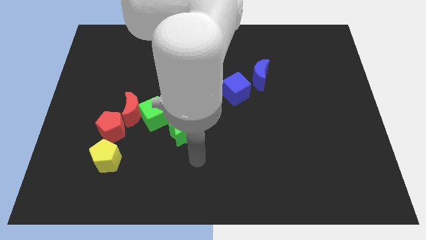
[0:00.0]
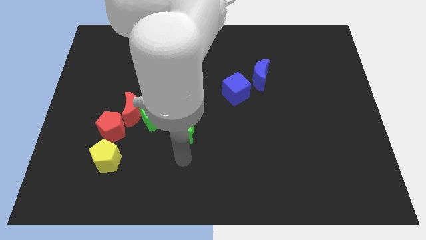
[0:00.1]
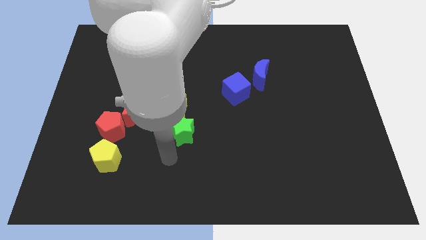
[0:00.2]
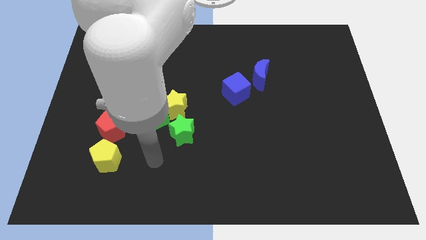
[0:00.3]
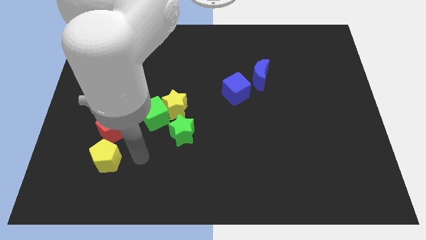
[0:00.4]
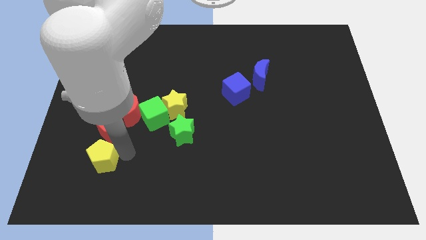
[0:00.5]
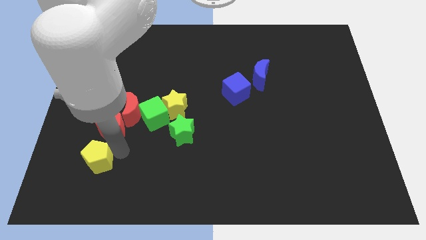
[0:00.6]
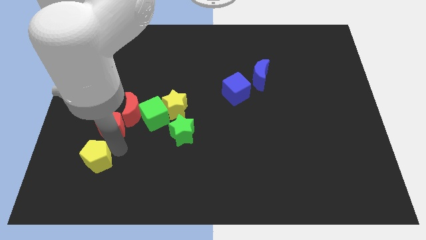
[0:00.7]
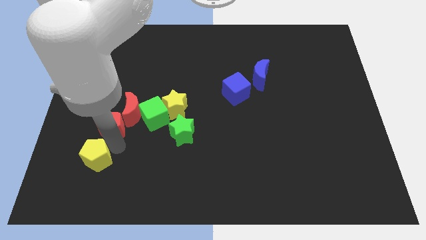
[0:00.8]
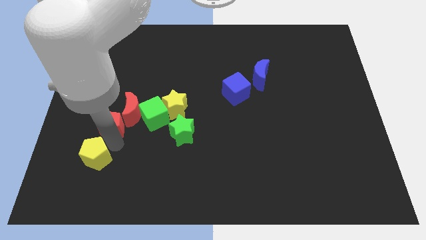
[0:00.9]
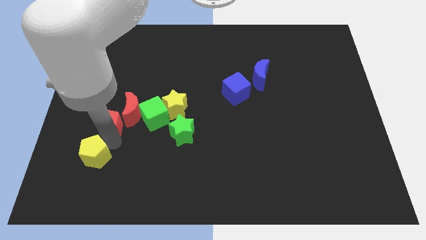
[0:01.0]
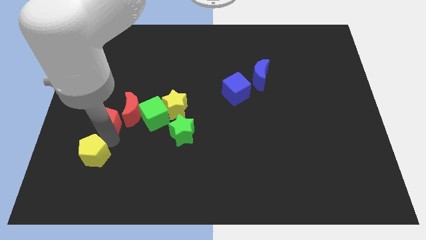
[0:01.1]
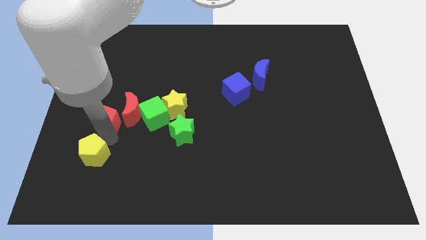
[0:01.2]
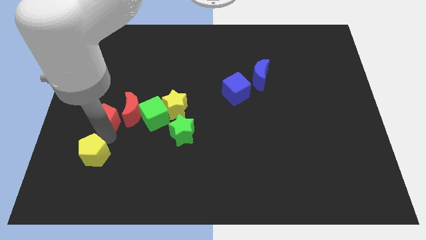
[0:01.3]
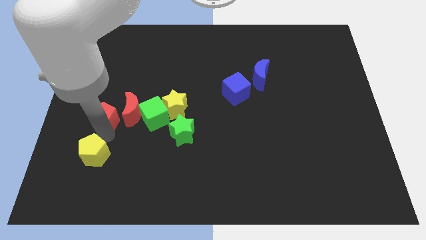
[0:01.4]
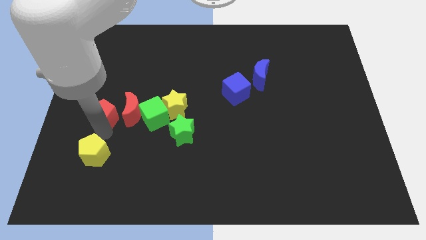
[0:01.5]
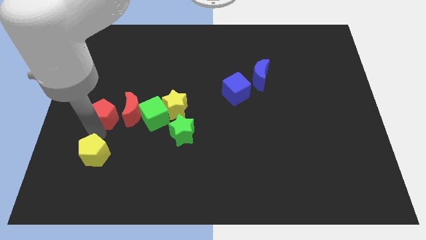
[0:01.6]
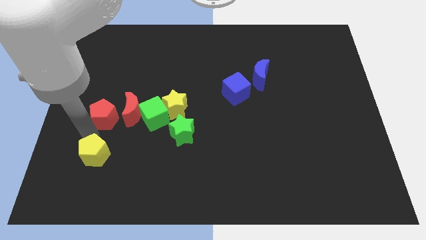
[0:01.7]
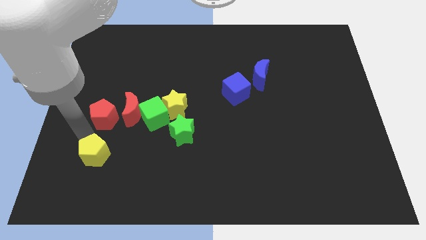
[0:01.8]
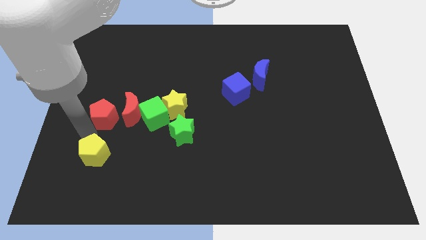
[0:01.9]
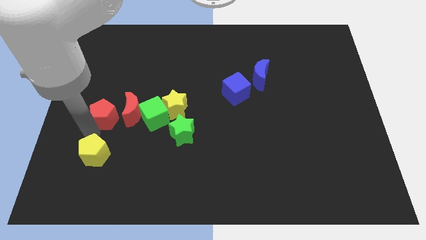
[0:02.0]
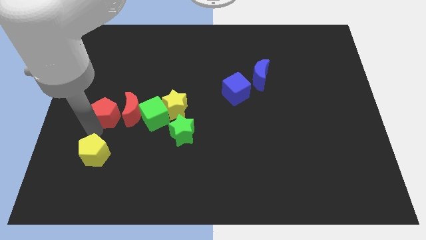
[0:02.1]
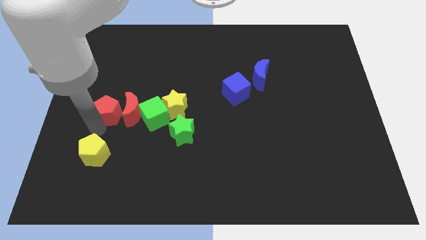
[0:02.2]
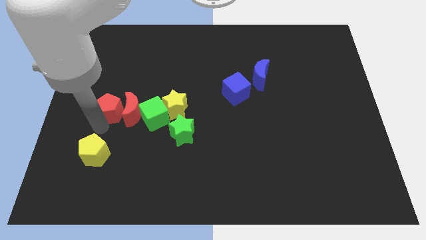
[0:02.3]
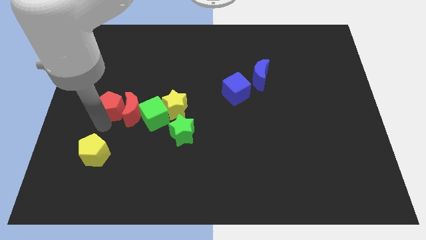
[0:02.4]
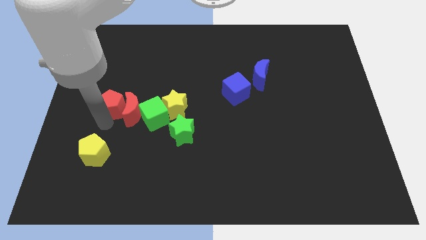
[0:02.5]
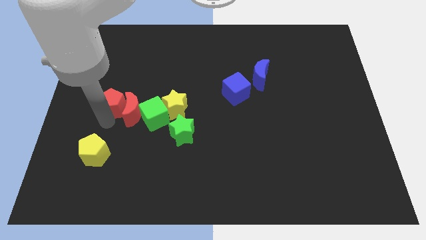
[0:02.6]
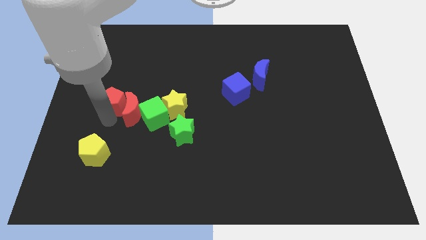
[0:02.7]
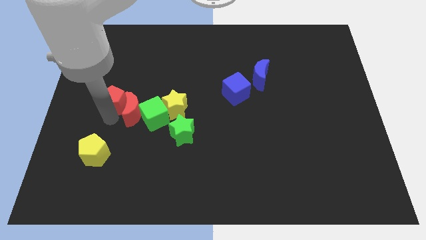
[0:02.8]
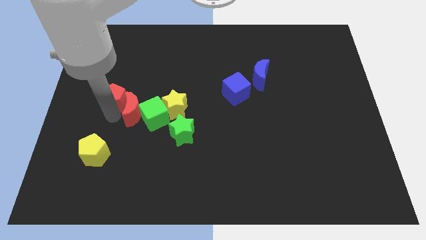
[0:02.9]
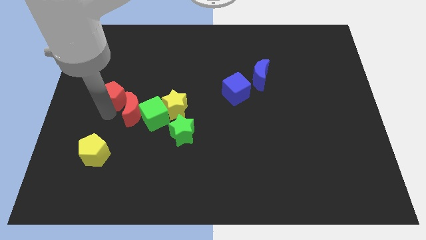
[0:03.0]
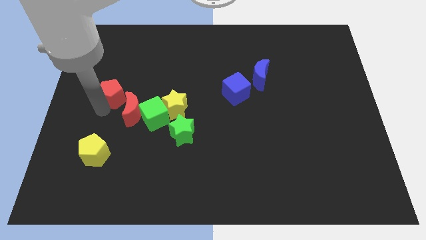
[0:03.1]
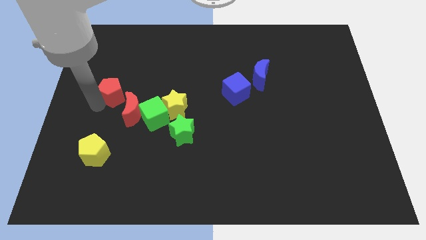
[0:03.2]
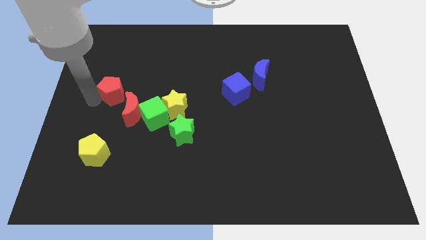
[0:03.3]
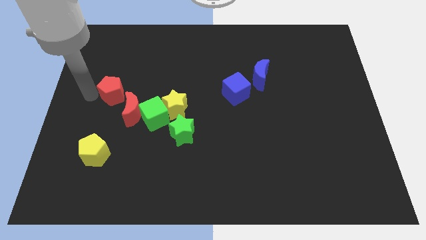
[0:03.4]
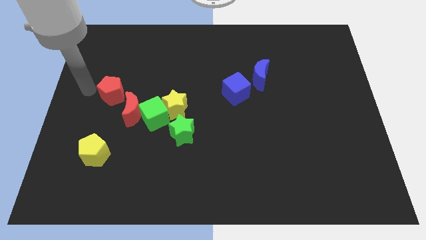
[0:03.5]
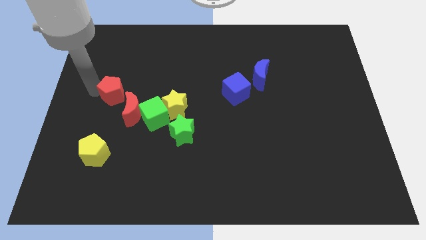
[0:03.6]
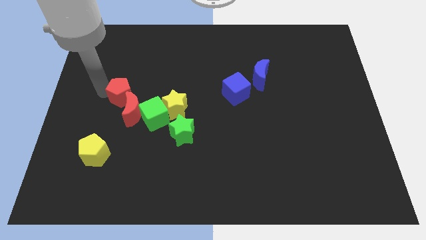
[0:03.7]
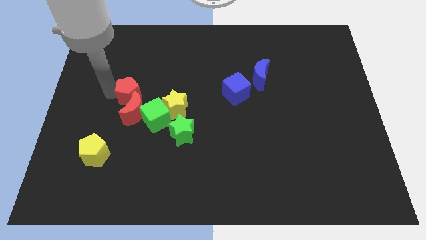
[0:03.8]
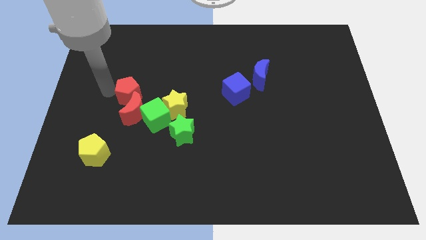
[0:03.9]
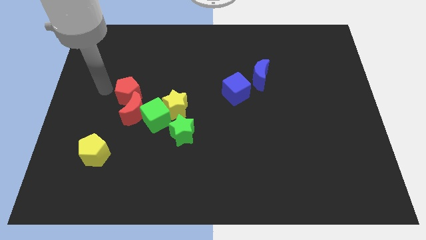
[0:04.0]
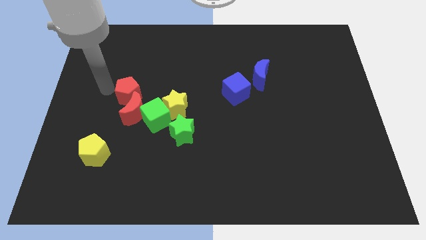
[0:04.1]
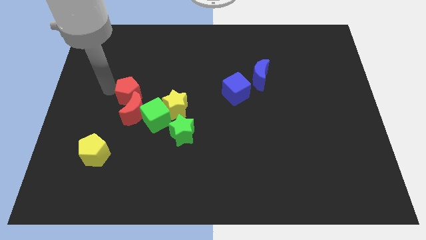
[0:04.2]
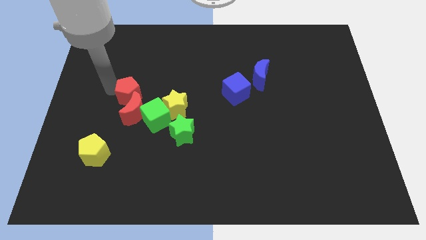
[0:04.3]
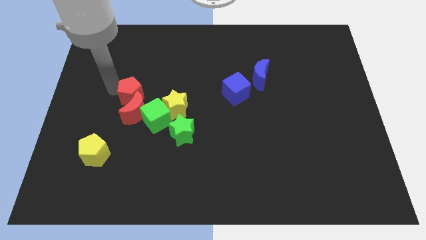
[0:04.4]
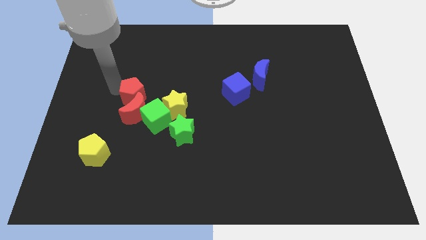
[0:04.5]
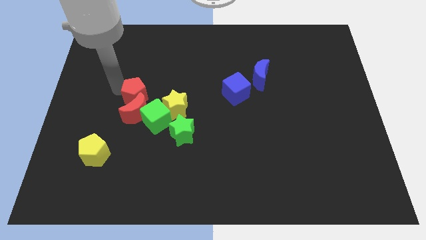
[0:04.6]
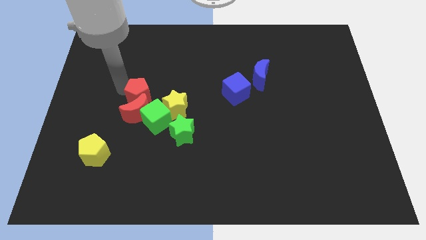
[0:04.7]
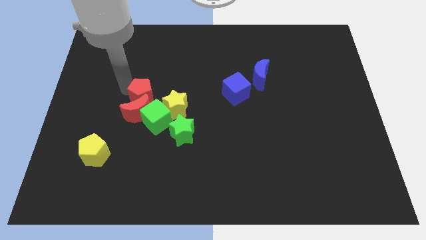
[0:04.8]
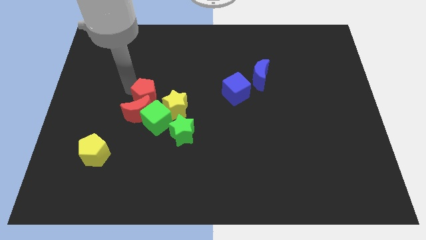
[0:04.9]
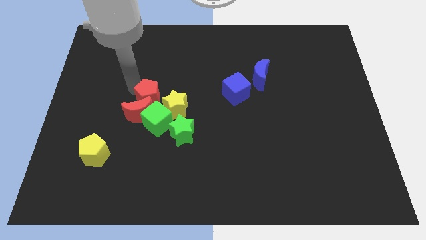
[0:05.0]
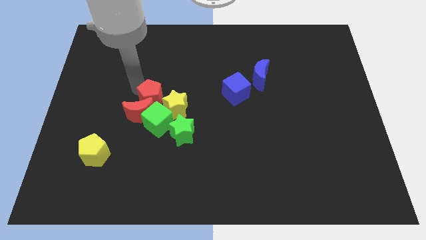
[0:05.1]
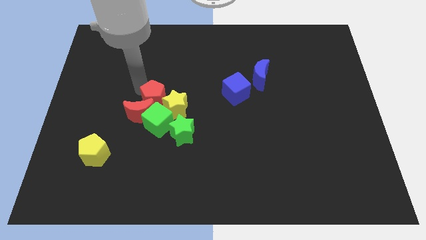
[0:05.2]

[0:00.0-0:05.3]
push the red pentagon to the yellow star

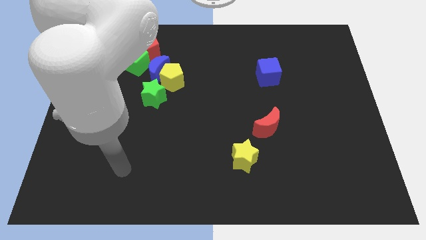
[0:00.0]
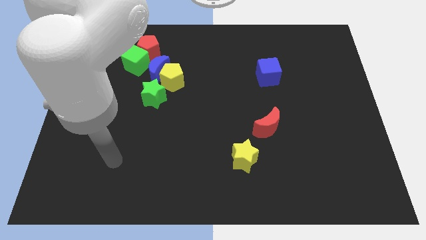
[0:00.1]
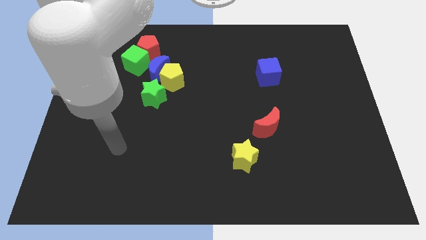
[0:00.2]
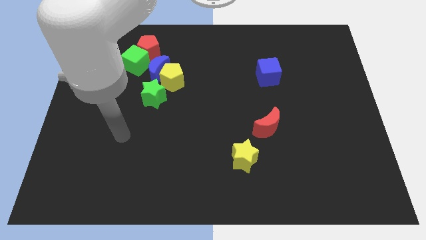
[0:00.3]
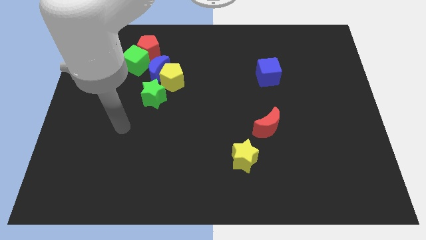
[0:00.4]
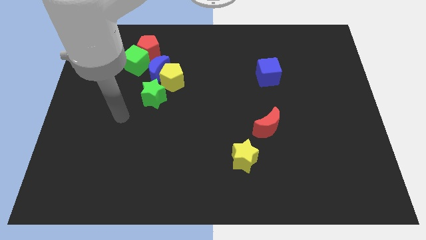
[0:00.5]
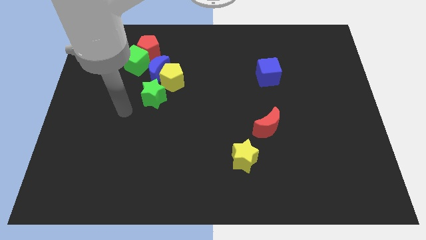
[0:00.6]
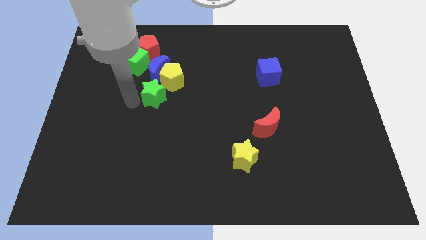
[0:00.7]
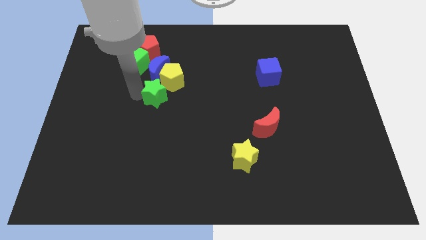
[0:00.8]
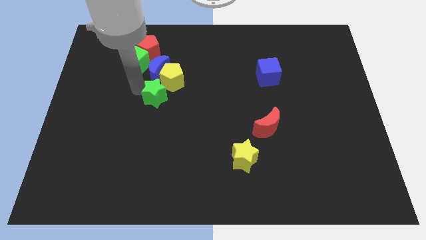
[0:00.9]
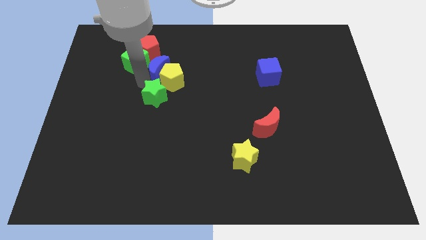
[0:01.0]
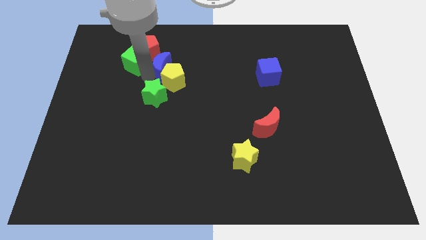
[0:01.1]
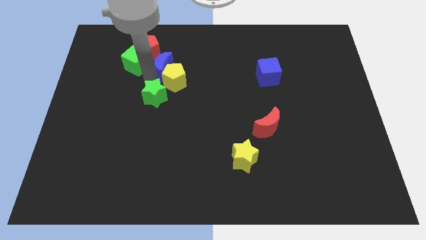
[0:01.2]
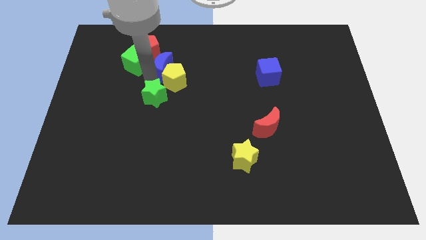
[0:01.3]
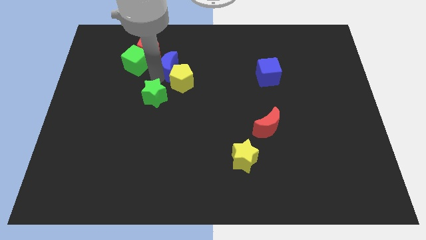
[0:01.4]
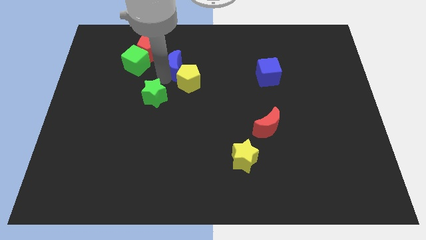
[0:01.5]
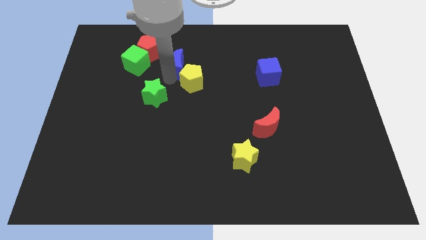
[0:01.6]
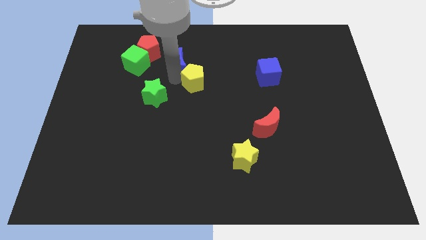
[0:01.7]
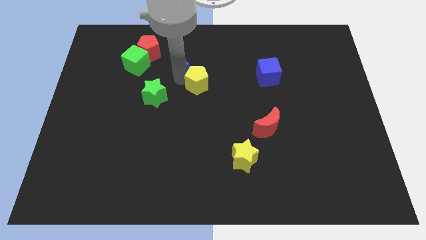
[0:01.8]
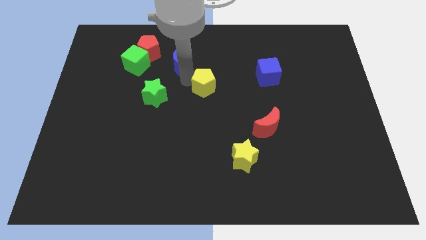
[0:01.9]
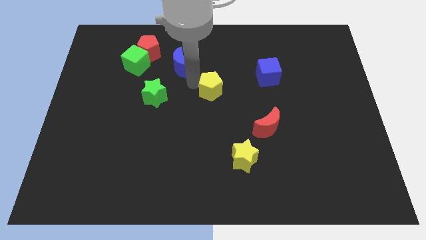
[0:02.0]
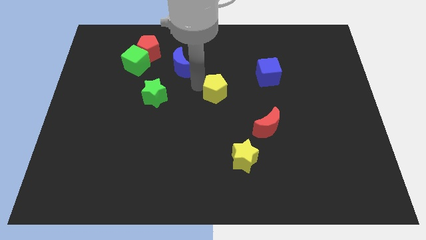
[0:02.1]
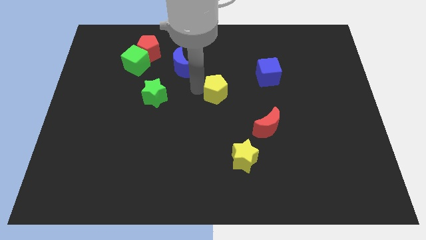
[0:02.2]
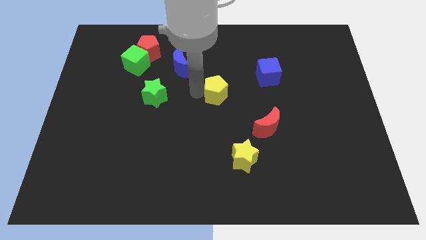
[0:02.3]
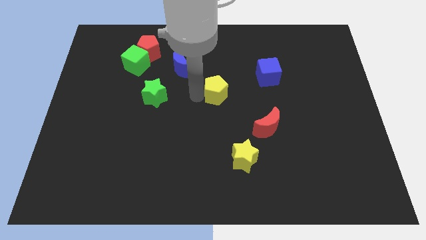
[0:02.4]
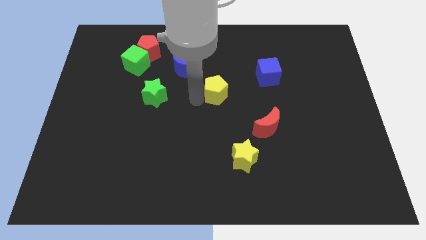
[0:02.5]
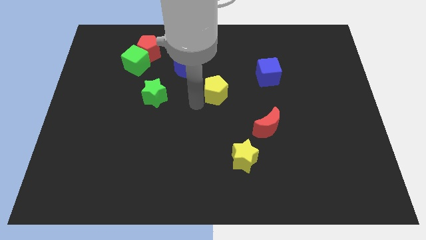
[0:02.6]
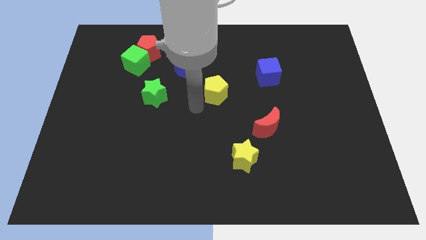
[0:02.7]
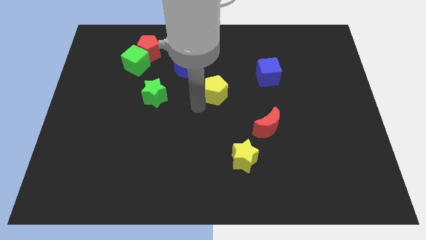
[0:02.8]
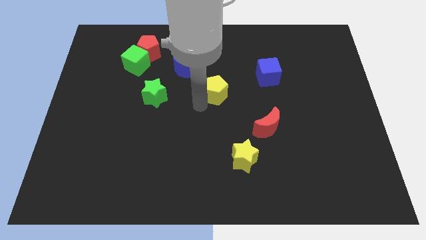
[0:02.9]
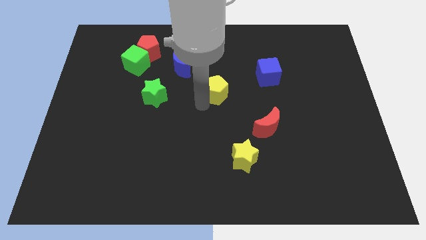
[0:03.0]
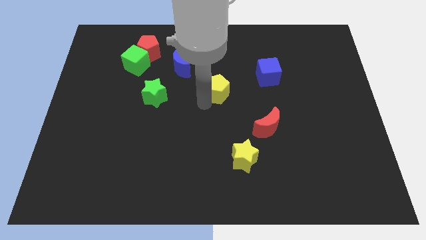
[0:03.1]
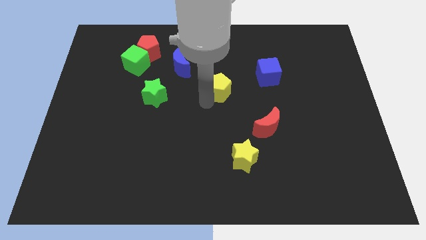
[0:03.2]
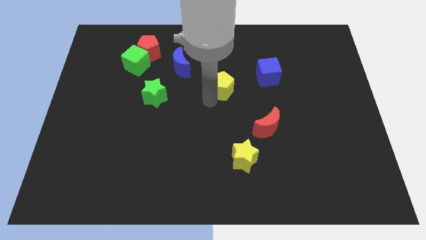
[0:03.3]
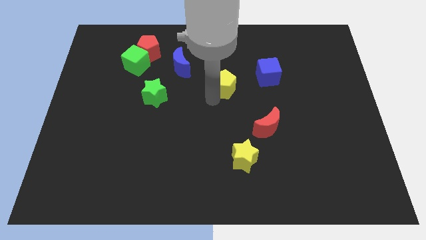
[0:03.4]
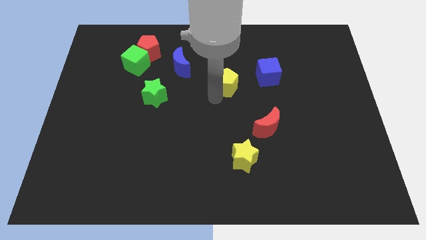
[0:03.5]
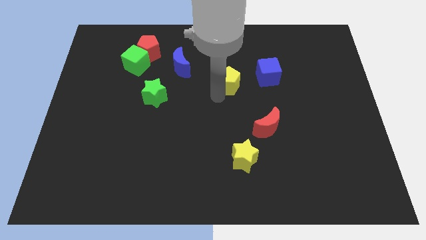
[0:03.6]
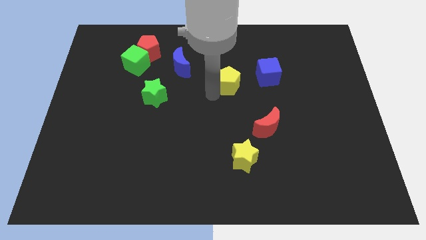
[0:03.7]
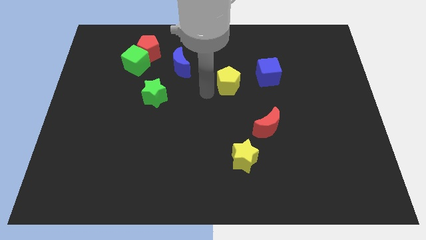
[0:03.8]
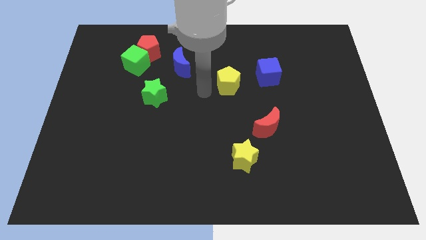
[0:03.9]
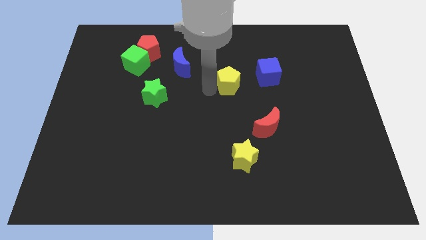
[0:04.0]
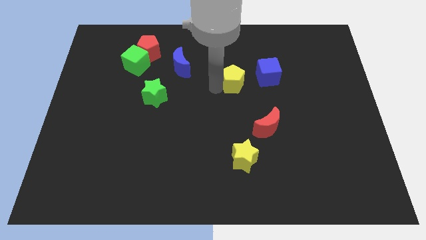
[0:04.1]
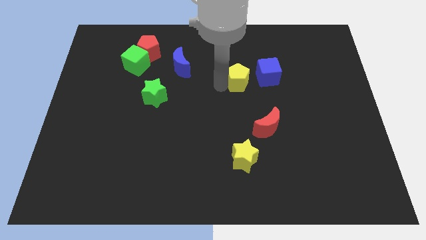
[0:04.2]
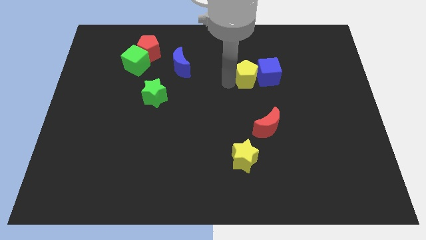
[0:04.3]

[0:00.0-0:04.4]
move the yellow pentagon towards the blue cube
